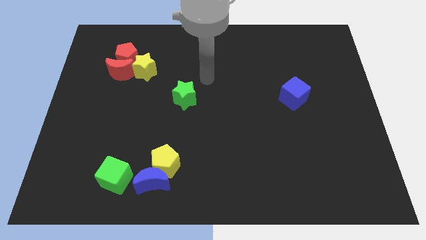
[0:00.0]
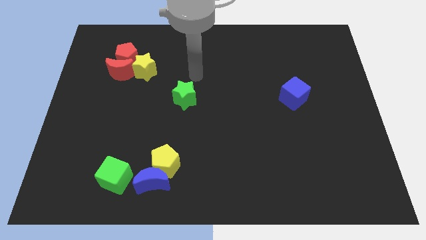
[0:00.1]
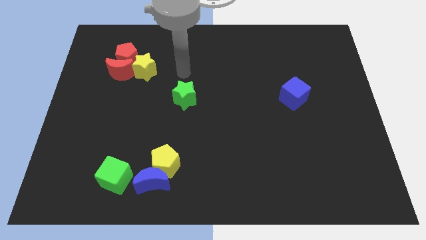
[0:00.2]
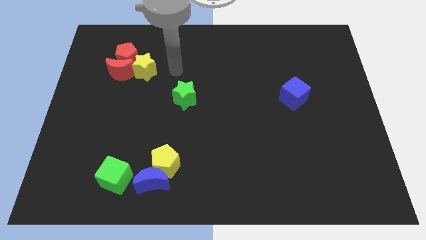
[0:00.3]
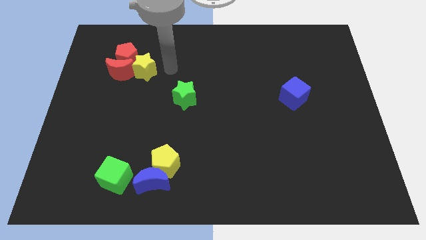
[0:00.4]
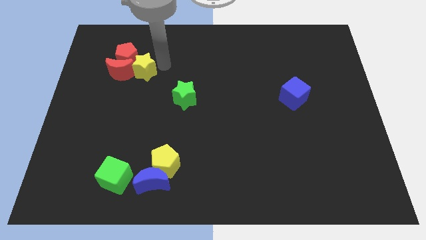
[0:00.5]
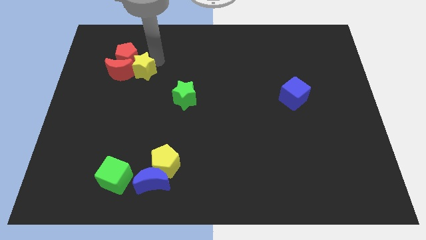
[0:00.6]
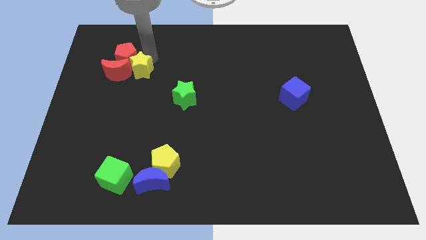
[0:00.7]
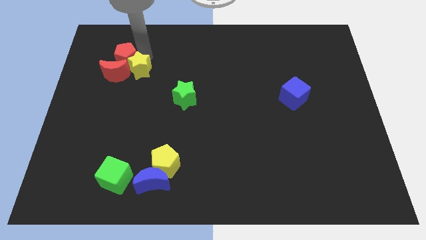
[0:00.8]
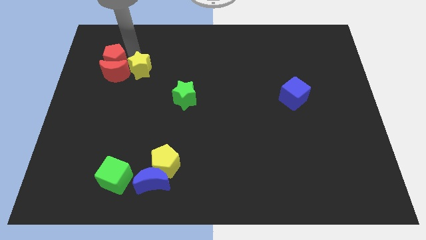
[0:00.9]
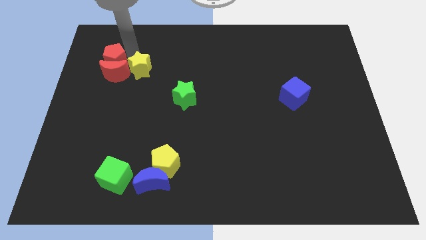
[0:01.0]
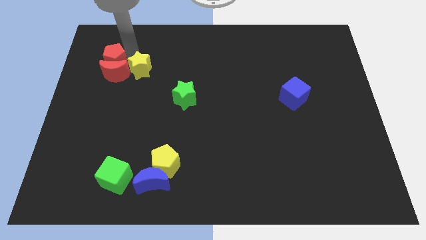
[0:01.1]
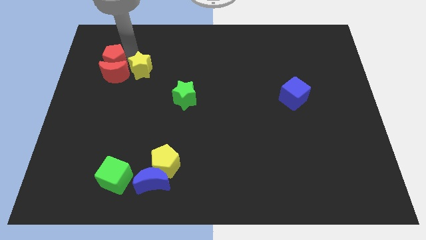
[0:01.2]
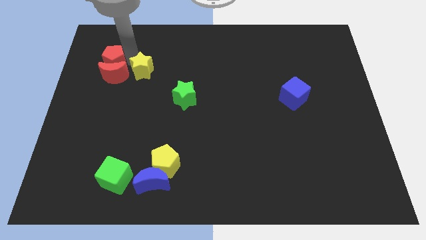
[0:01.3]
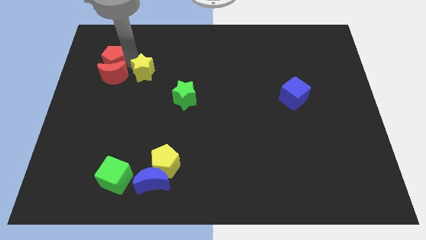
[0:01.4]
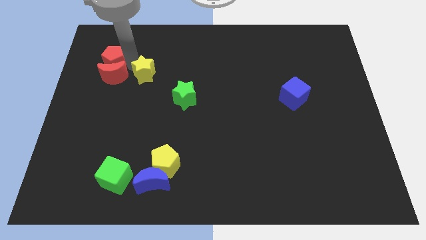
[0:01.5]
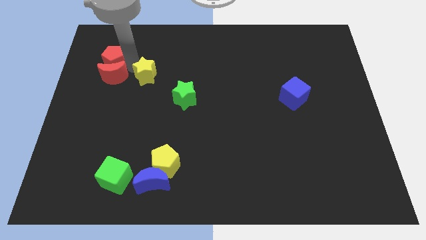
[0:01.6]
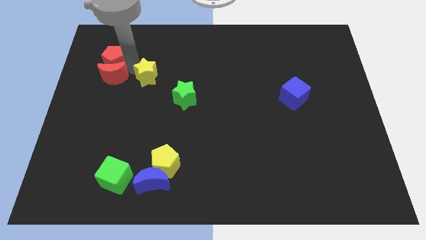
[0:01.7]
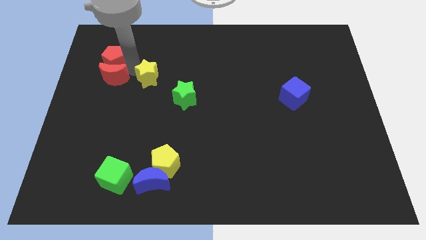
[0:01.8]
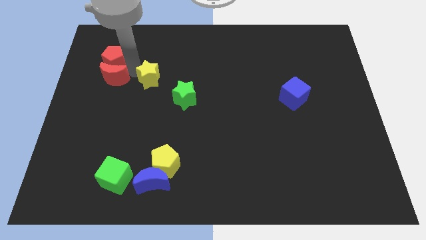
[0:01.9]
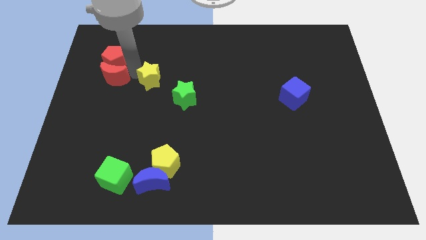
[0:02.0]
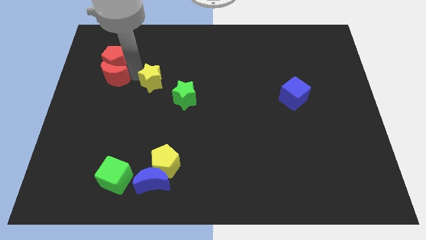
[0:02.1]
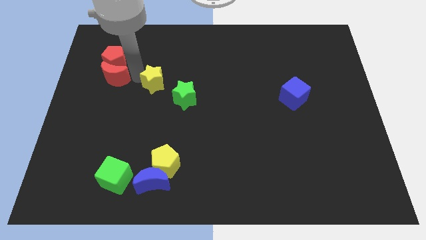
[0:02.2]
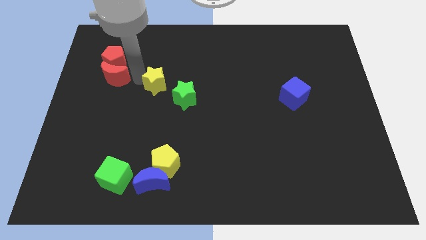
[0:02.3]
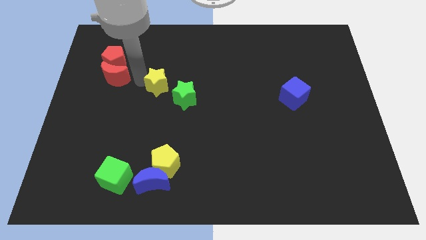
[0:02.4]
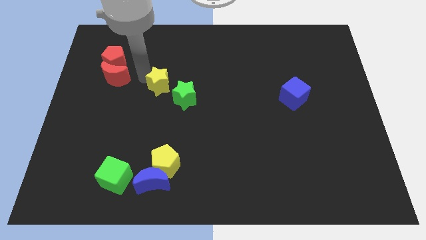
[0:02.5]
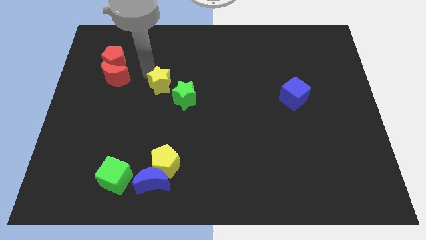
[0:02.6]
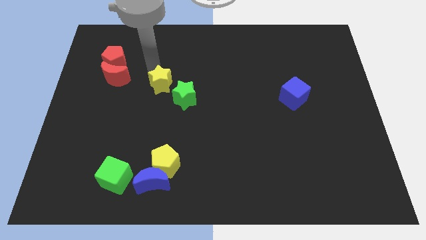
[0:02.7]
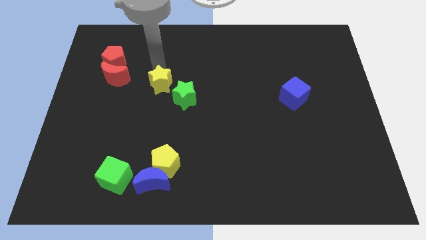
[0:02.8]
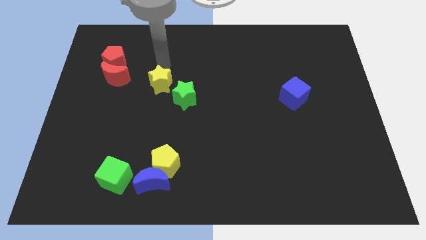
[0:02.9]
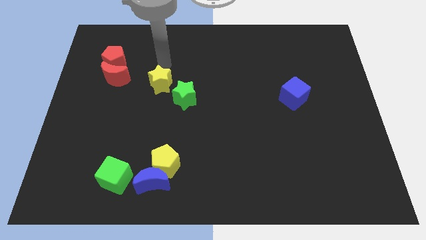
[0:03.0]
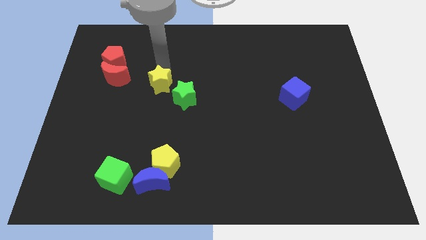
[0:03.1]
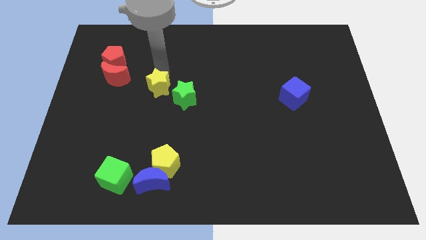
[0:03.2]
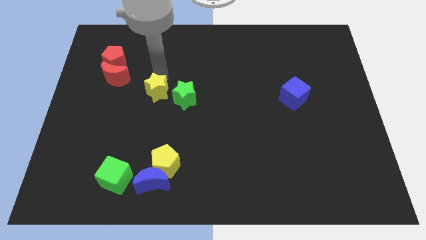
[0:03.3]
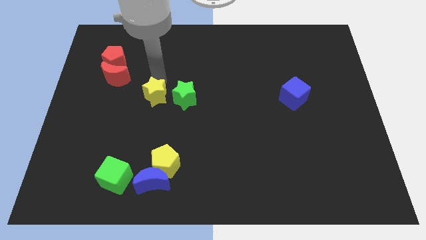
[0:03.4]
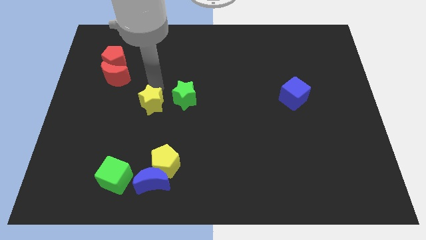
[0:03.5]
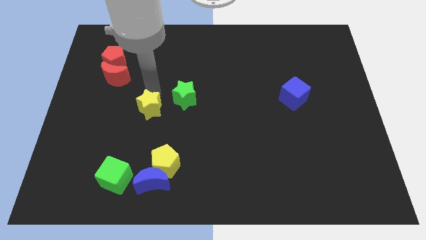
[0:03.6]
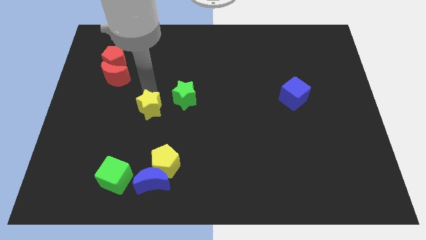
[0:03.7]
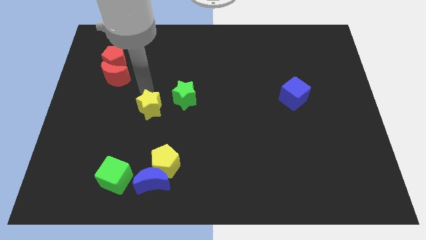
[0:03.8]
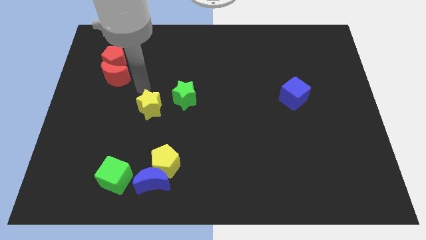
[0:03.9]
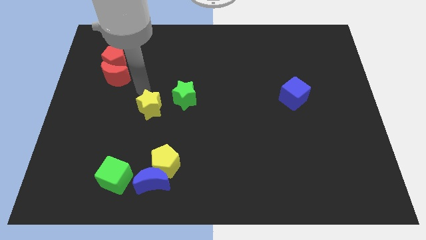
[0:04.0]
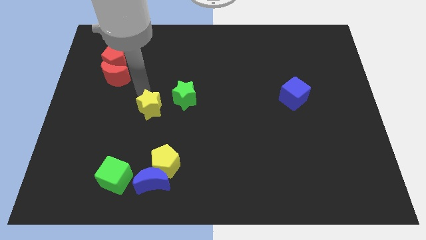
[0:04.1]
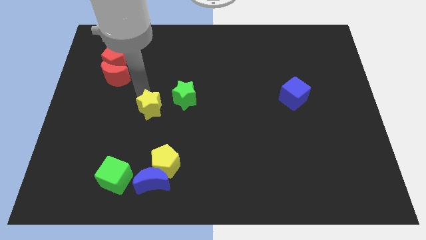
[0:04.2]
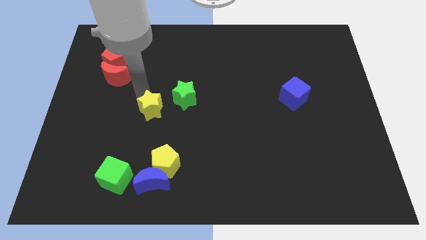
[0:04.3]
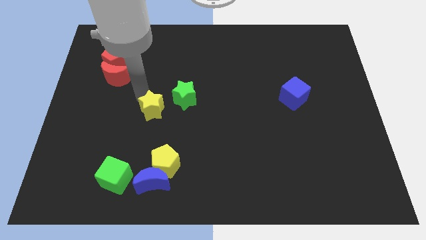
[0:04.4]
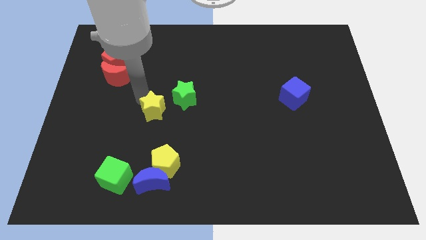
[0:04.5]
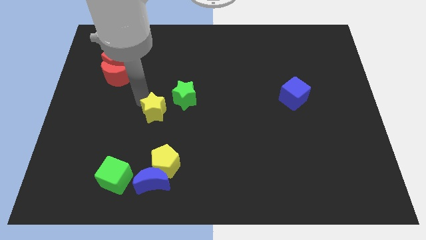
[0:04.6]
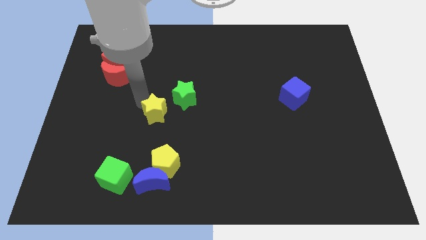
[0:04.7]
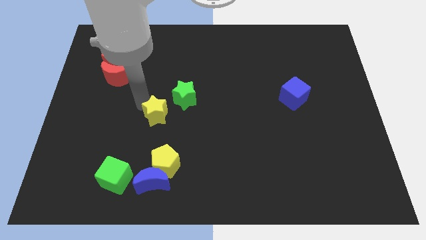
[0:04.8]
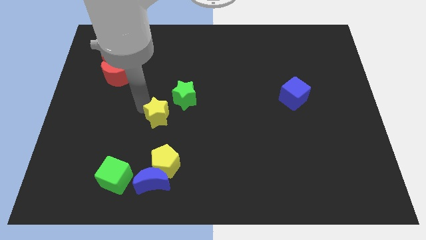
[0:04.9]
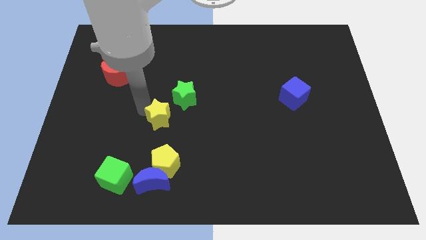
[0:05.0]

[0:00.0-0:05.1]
move the yellow star to the top side of the blue moon

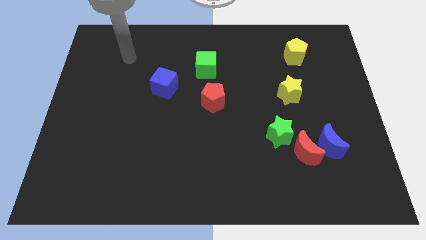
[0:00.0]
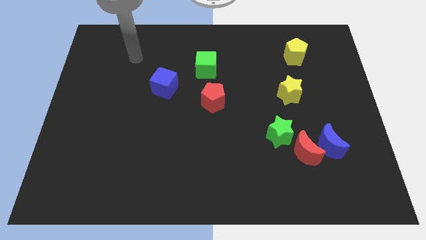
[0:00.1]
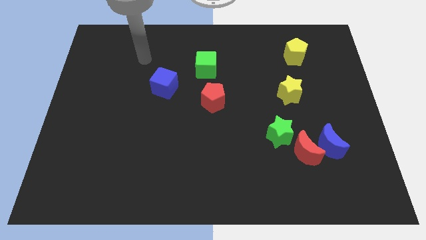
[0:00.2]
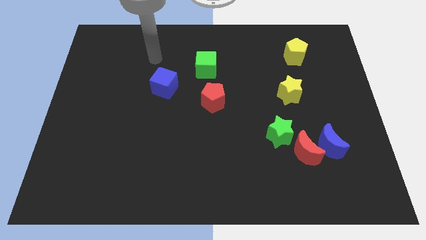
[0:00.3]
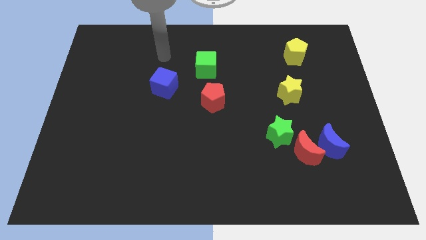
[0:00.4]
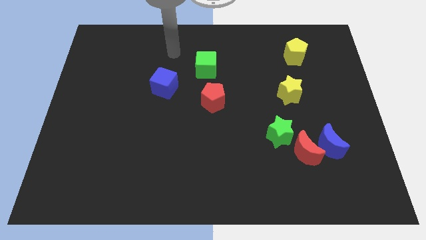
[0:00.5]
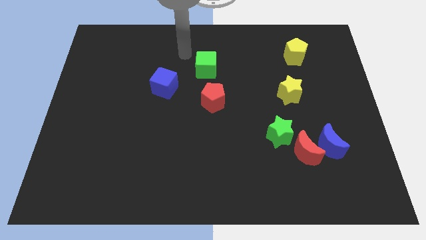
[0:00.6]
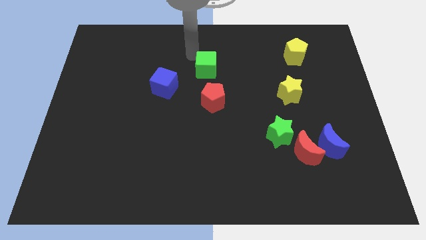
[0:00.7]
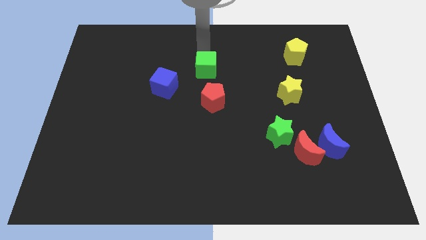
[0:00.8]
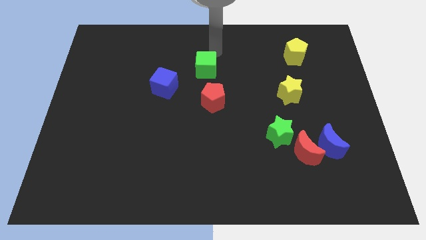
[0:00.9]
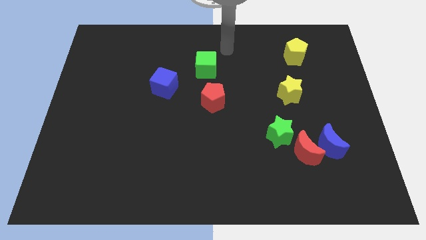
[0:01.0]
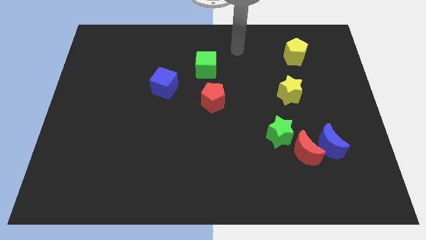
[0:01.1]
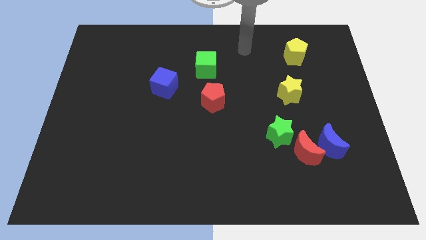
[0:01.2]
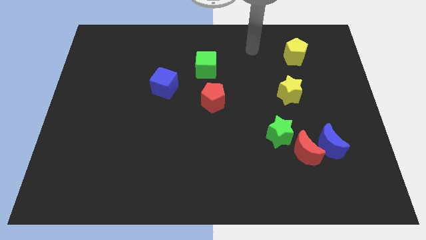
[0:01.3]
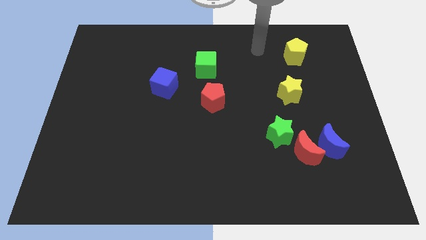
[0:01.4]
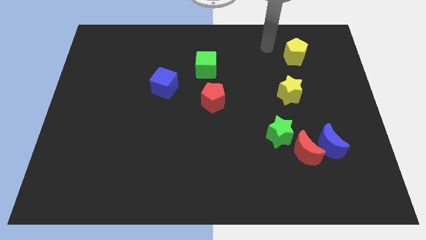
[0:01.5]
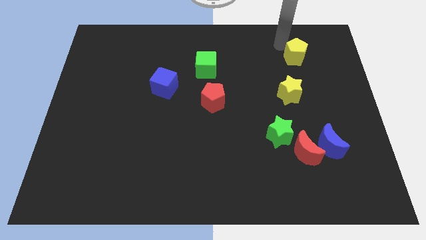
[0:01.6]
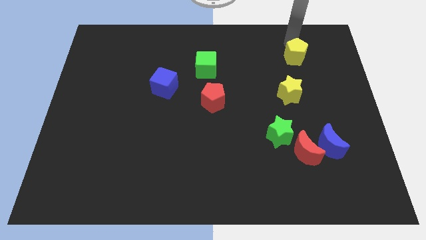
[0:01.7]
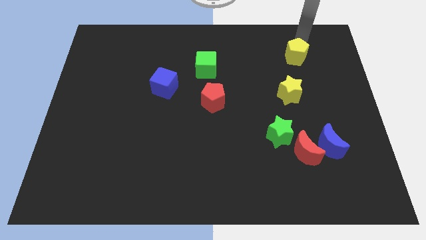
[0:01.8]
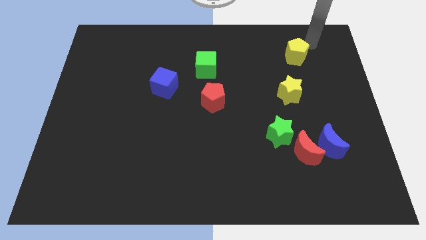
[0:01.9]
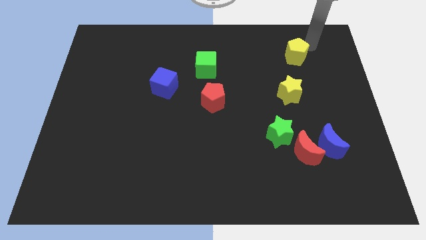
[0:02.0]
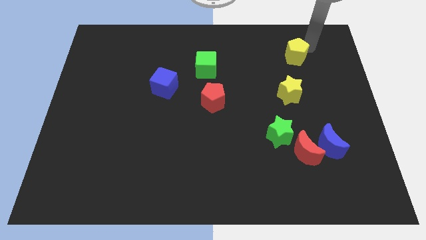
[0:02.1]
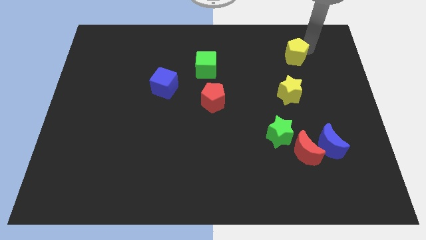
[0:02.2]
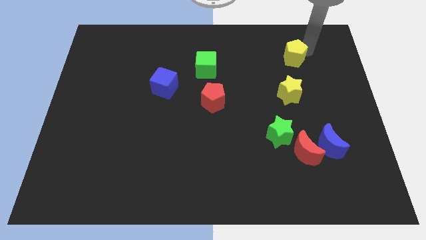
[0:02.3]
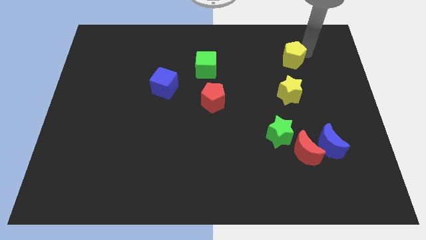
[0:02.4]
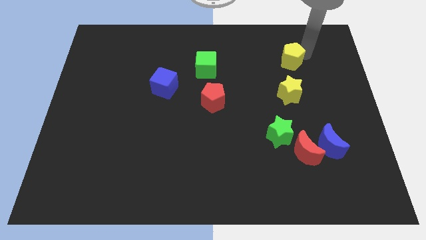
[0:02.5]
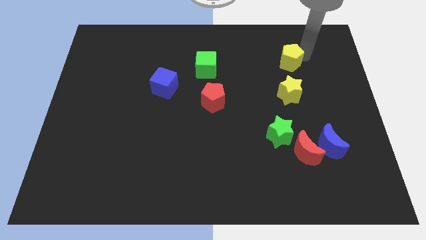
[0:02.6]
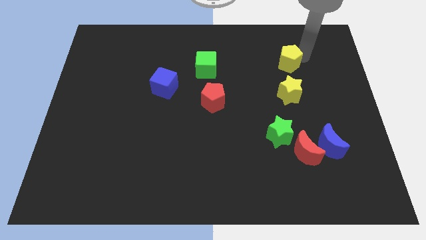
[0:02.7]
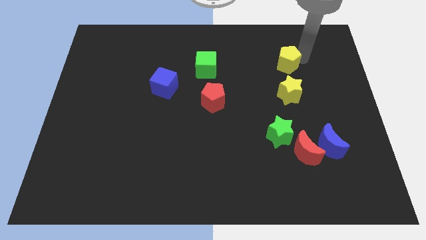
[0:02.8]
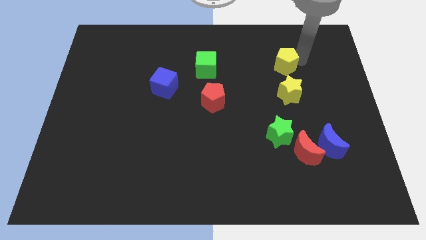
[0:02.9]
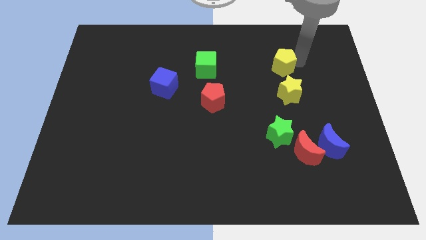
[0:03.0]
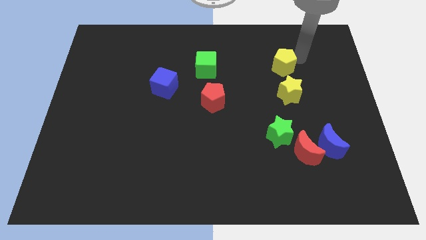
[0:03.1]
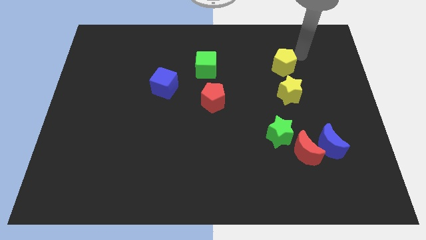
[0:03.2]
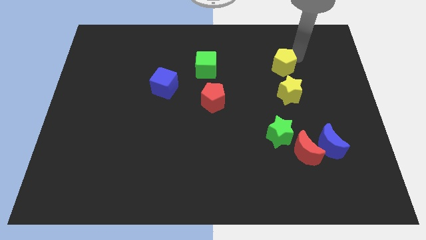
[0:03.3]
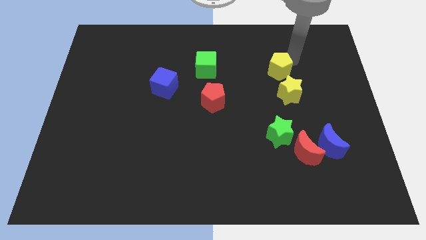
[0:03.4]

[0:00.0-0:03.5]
slide the yellow pentagon diagonally up and to the left of the yellow star
